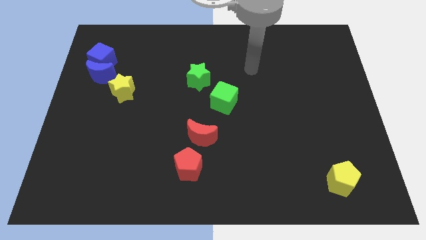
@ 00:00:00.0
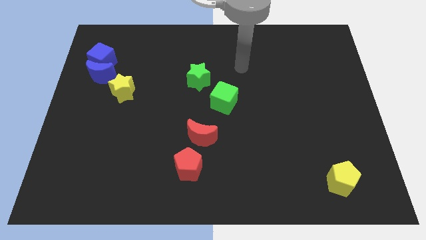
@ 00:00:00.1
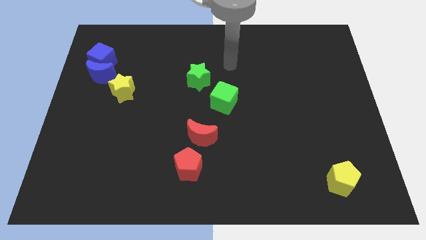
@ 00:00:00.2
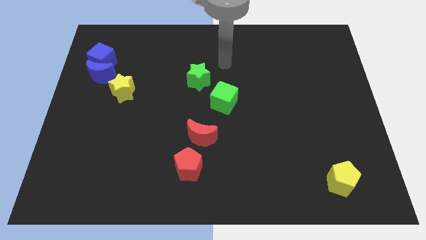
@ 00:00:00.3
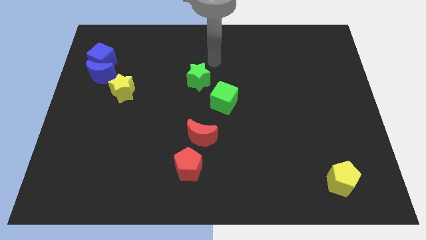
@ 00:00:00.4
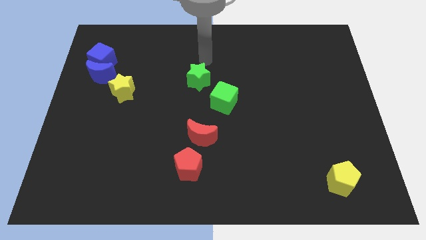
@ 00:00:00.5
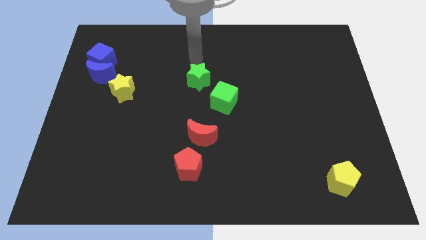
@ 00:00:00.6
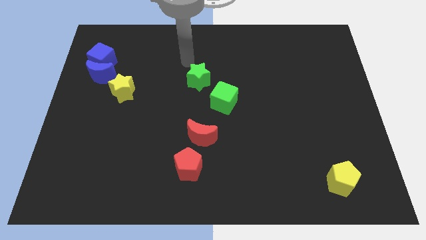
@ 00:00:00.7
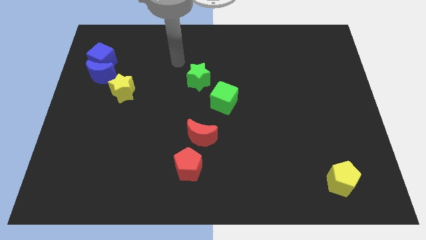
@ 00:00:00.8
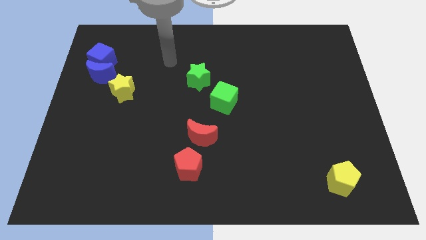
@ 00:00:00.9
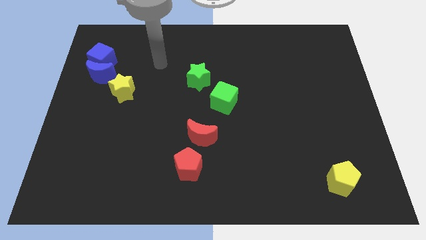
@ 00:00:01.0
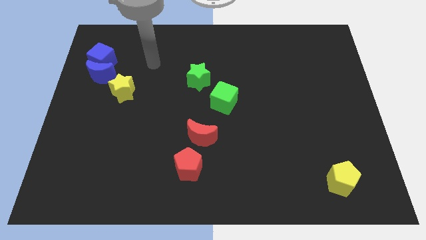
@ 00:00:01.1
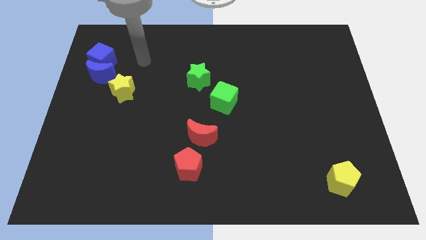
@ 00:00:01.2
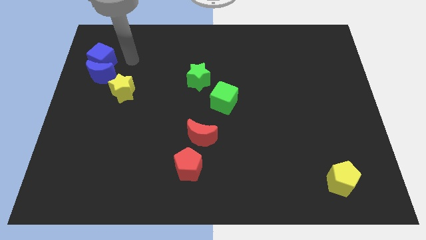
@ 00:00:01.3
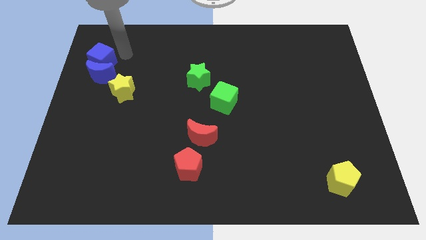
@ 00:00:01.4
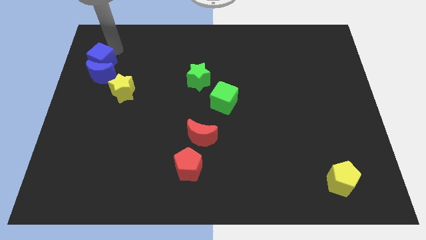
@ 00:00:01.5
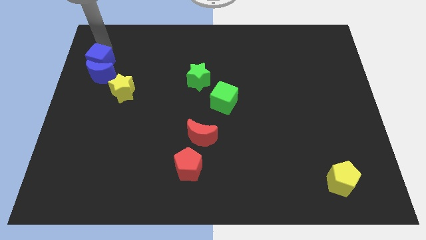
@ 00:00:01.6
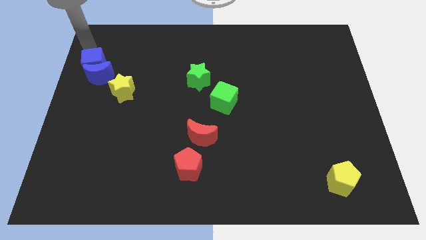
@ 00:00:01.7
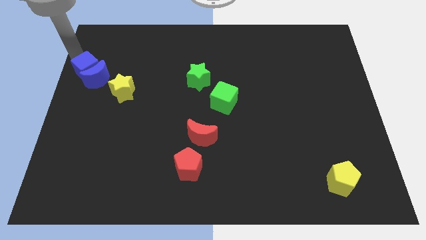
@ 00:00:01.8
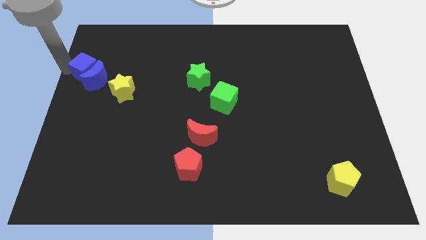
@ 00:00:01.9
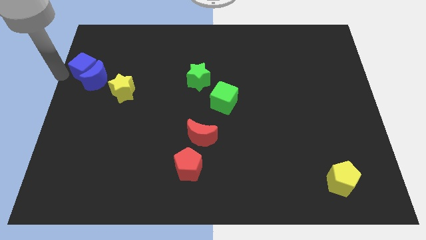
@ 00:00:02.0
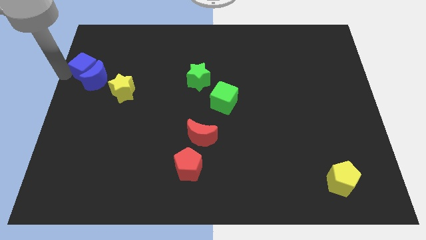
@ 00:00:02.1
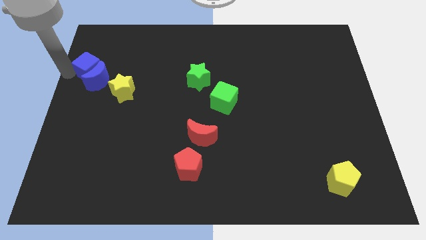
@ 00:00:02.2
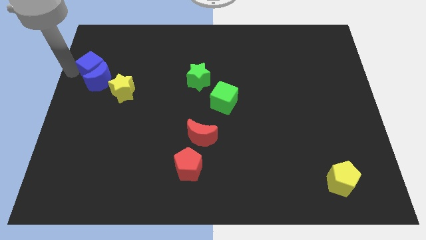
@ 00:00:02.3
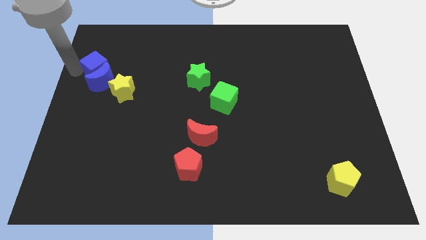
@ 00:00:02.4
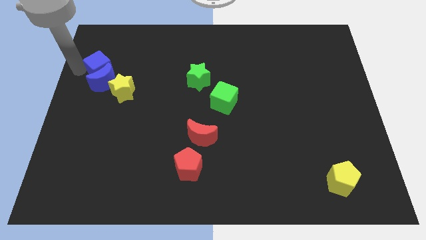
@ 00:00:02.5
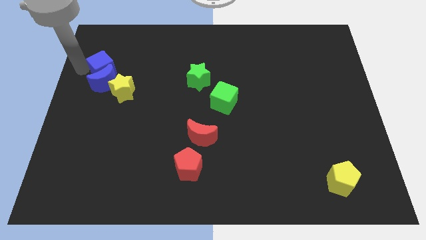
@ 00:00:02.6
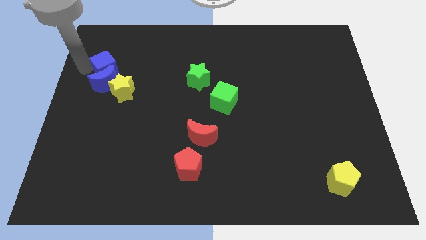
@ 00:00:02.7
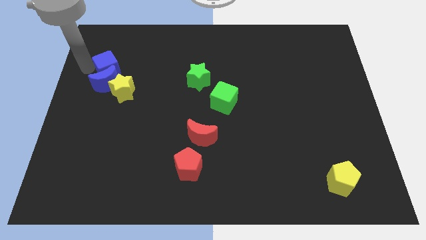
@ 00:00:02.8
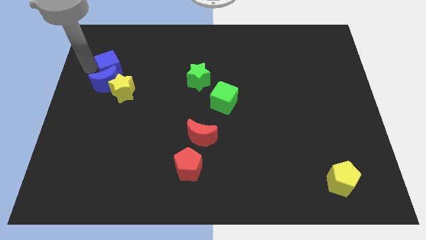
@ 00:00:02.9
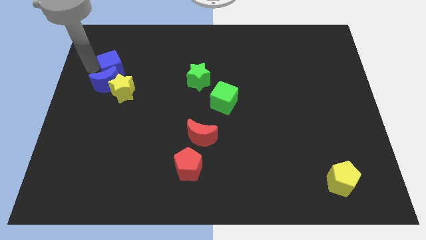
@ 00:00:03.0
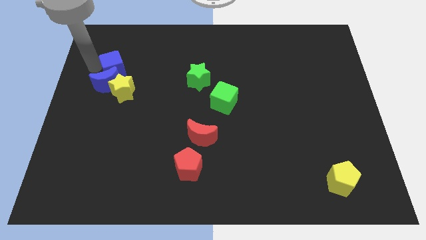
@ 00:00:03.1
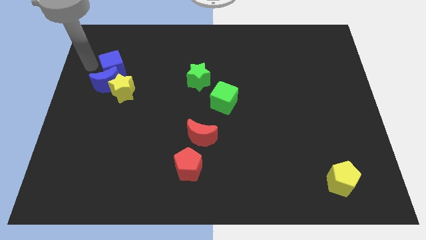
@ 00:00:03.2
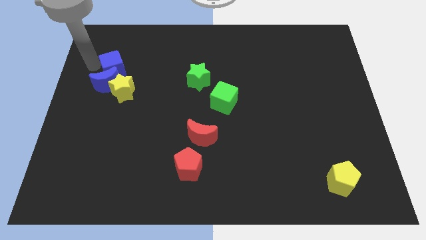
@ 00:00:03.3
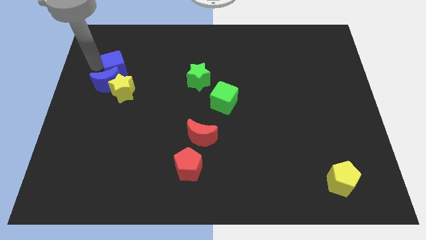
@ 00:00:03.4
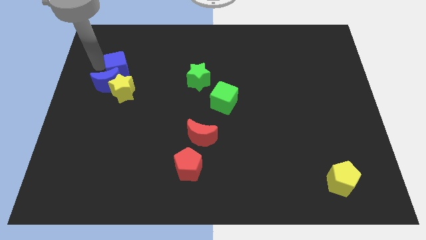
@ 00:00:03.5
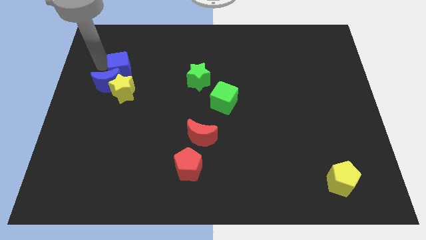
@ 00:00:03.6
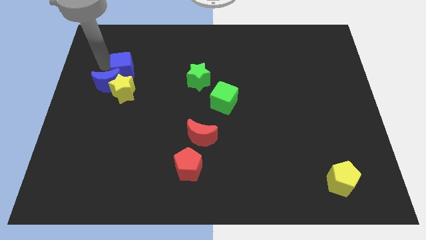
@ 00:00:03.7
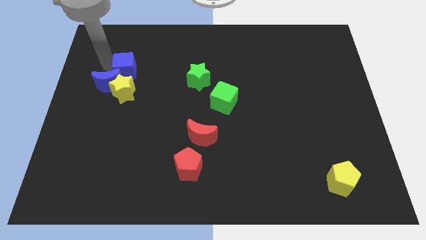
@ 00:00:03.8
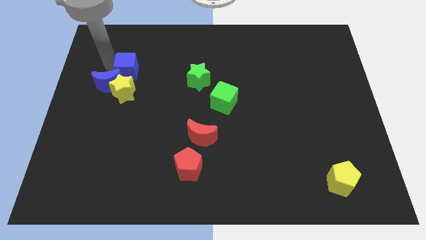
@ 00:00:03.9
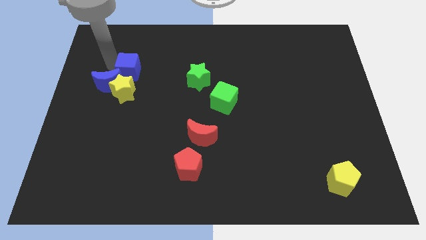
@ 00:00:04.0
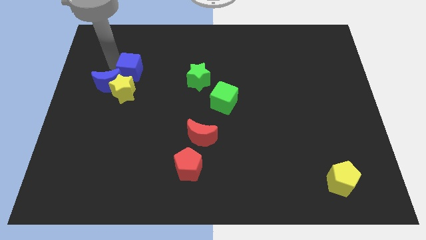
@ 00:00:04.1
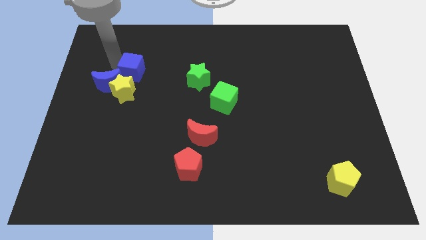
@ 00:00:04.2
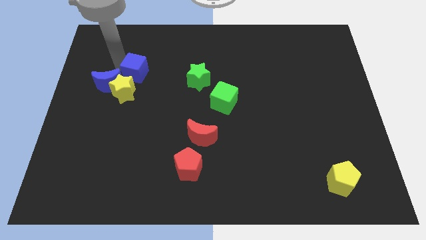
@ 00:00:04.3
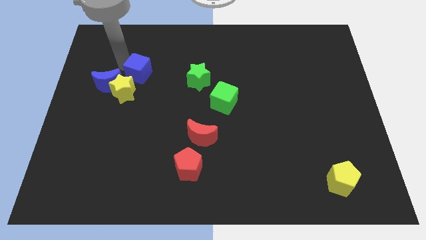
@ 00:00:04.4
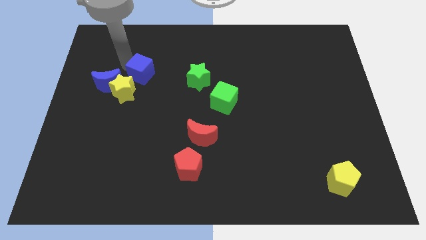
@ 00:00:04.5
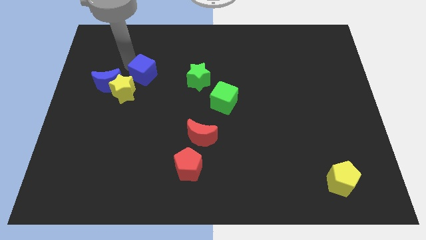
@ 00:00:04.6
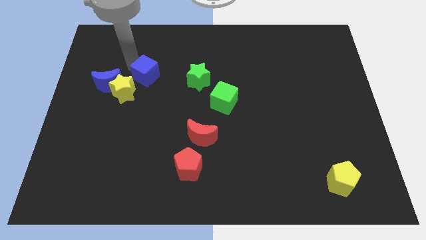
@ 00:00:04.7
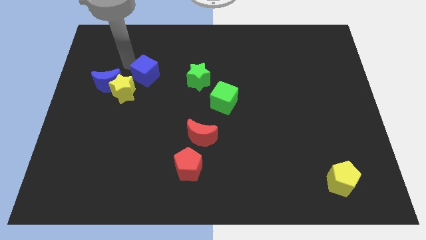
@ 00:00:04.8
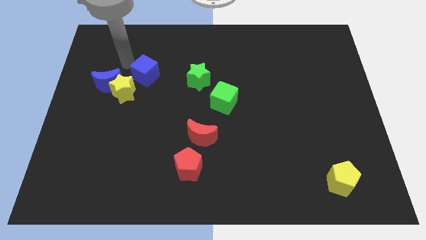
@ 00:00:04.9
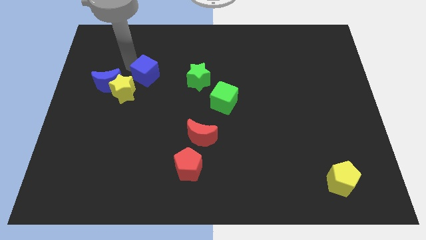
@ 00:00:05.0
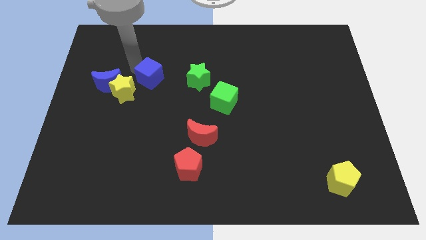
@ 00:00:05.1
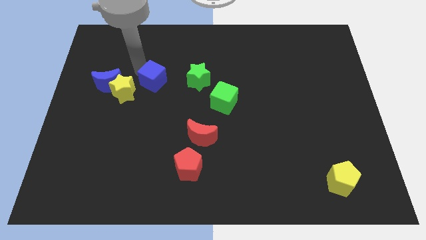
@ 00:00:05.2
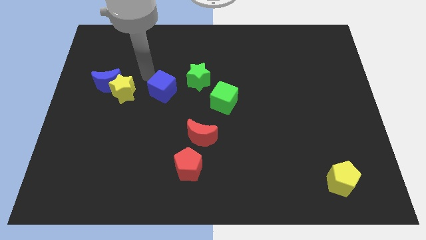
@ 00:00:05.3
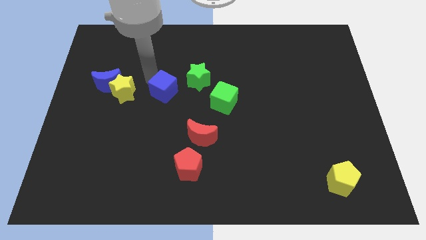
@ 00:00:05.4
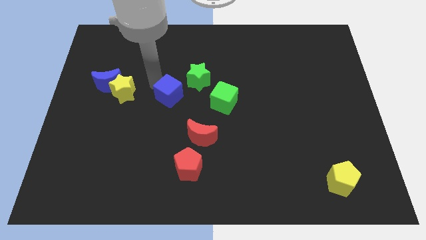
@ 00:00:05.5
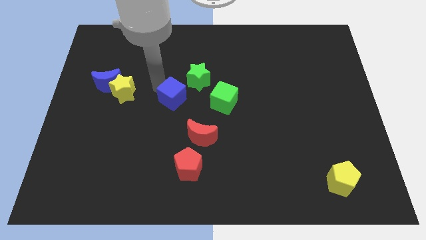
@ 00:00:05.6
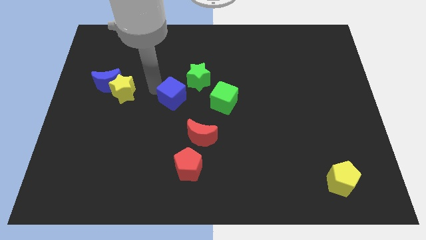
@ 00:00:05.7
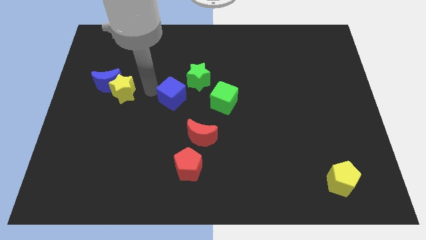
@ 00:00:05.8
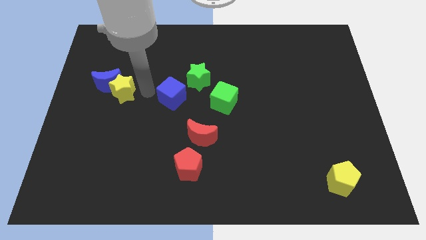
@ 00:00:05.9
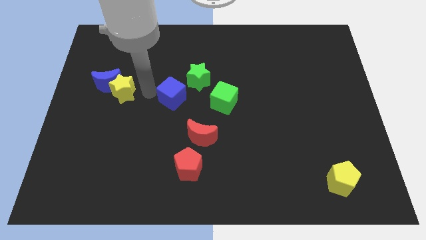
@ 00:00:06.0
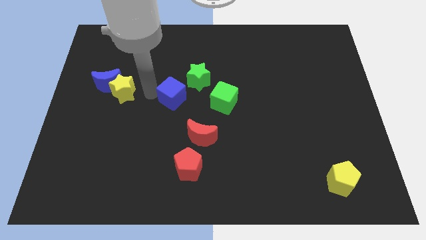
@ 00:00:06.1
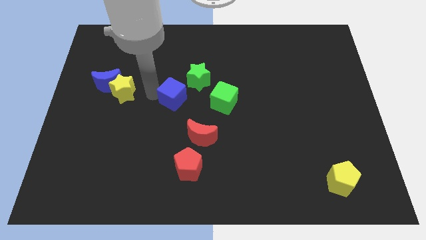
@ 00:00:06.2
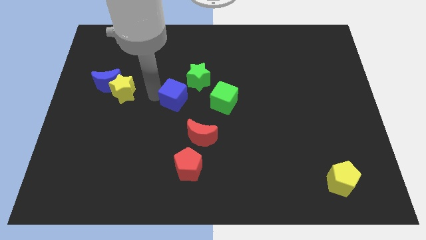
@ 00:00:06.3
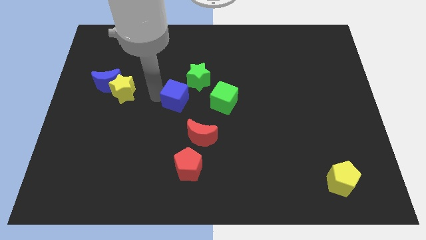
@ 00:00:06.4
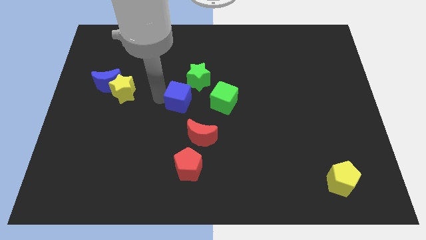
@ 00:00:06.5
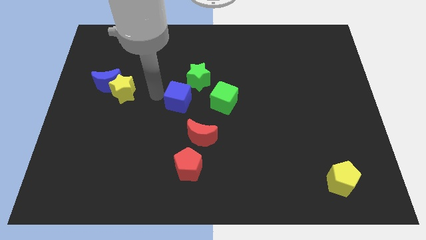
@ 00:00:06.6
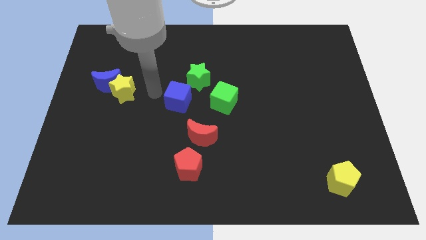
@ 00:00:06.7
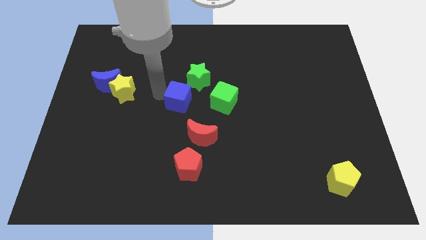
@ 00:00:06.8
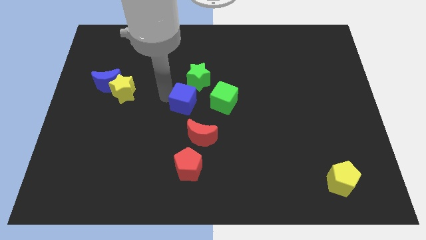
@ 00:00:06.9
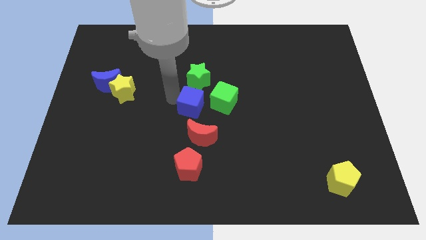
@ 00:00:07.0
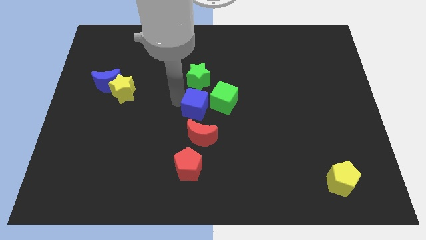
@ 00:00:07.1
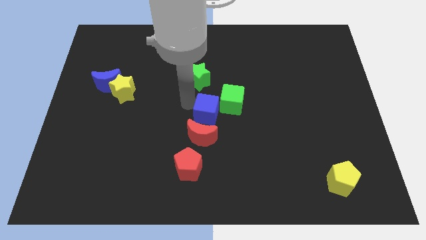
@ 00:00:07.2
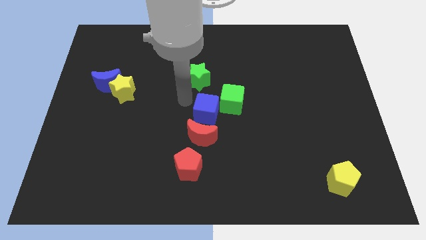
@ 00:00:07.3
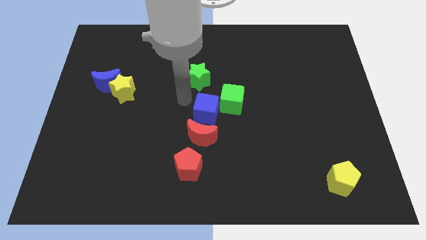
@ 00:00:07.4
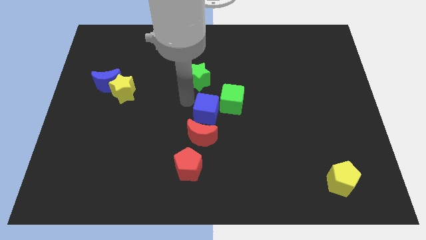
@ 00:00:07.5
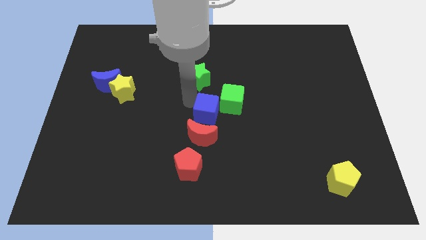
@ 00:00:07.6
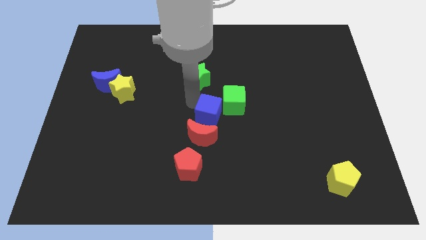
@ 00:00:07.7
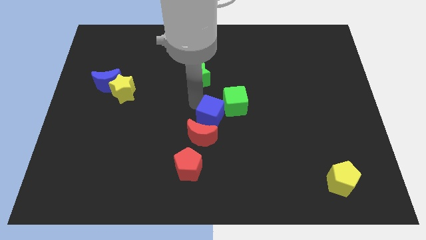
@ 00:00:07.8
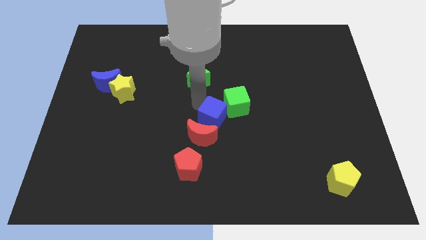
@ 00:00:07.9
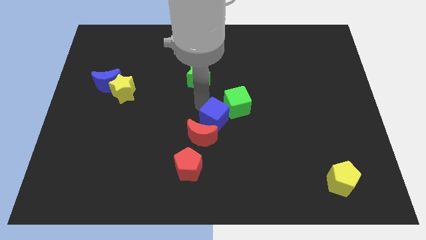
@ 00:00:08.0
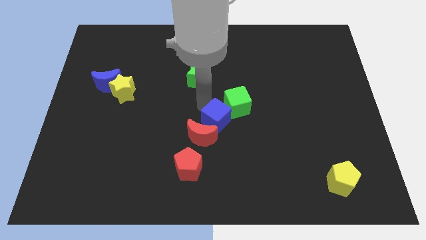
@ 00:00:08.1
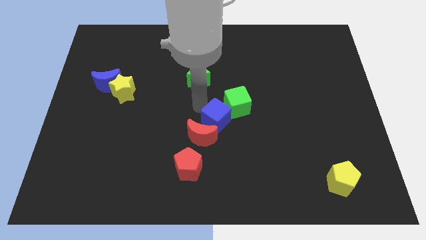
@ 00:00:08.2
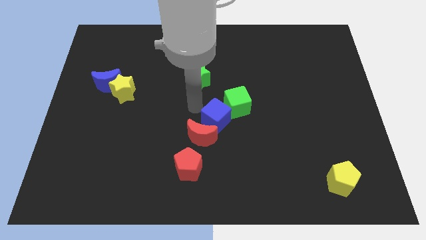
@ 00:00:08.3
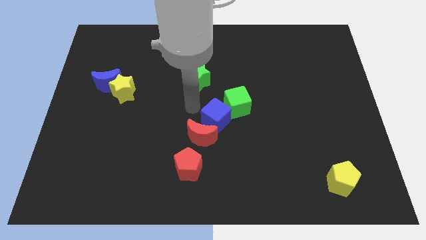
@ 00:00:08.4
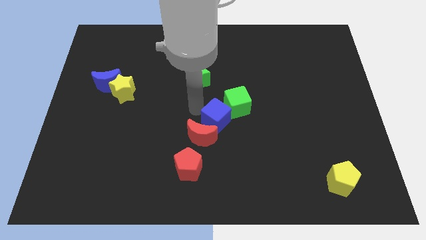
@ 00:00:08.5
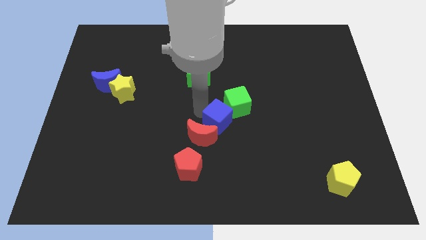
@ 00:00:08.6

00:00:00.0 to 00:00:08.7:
push the blue cube just right of the red moon
